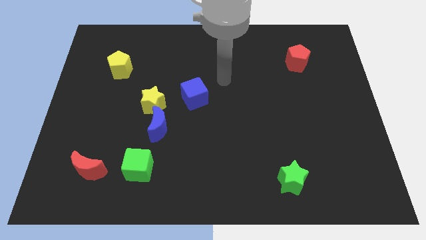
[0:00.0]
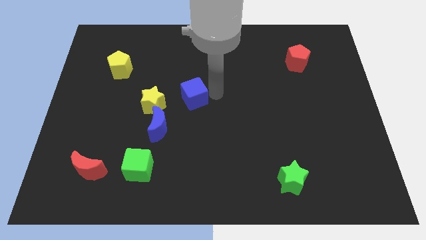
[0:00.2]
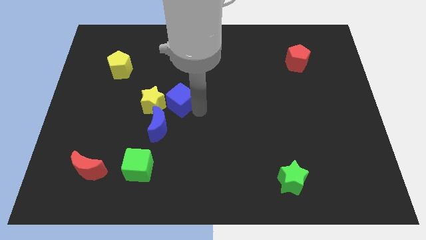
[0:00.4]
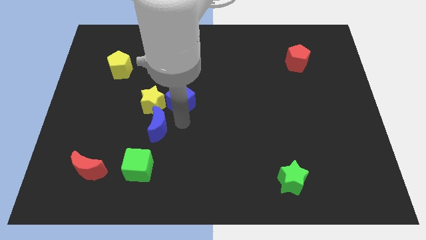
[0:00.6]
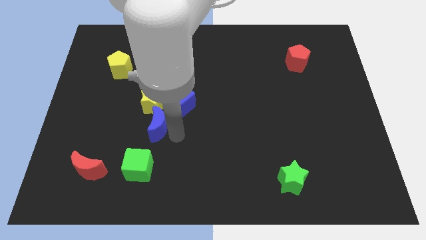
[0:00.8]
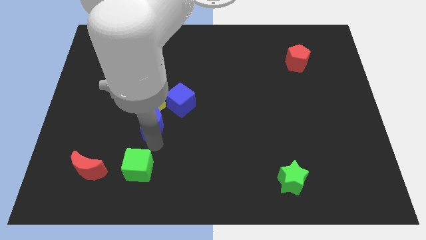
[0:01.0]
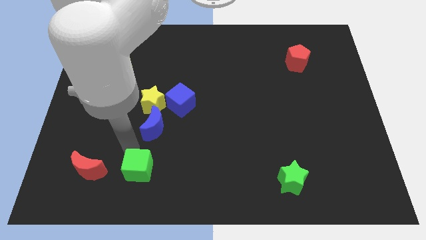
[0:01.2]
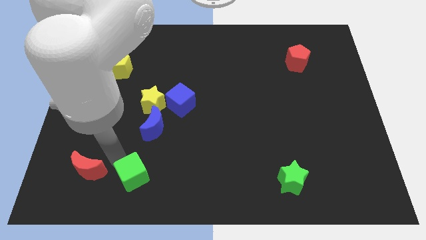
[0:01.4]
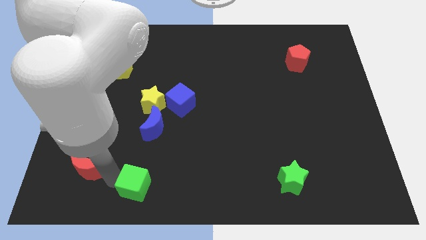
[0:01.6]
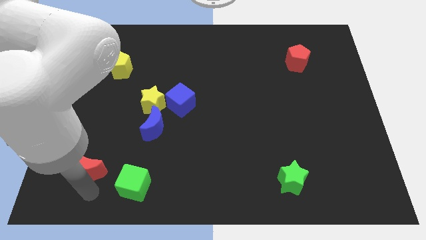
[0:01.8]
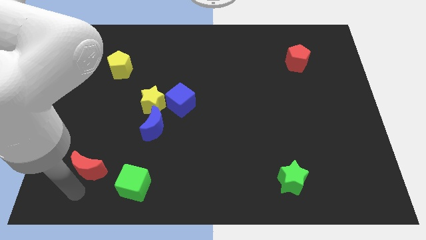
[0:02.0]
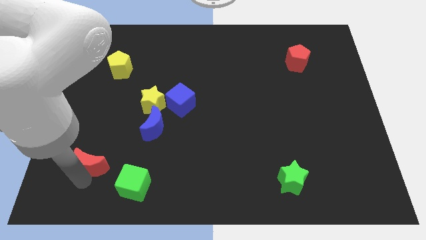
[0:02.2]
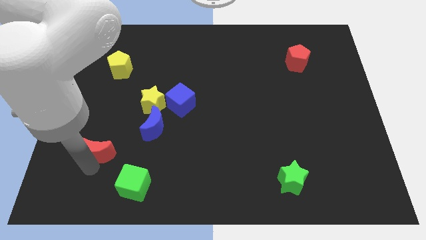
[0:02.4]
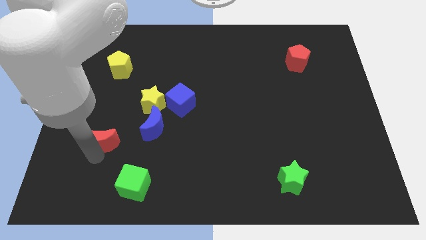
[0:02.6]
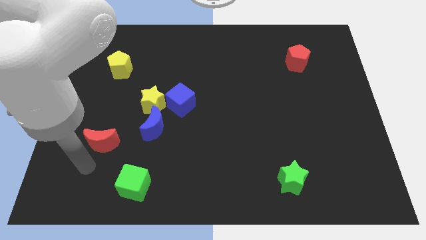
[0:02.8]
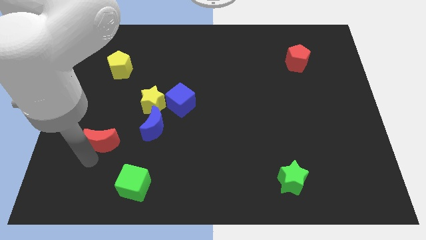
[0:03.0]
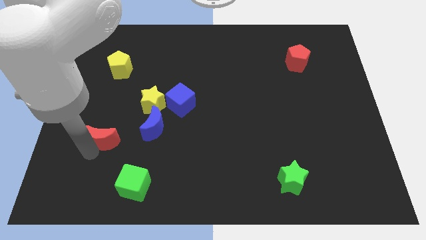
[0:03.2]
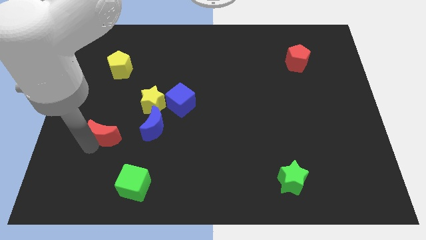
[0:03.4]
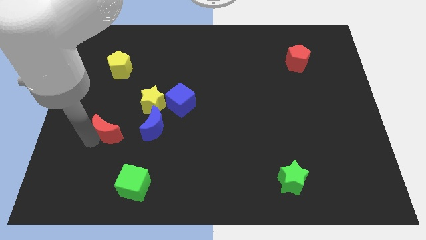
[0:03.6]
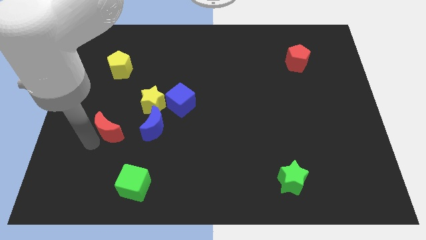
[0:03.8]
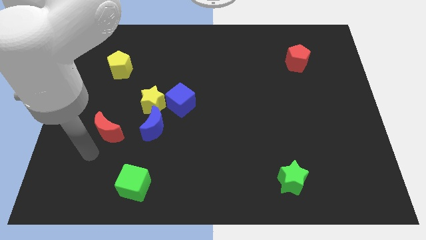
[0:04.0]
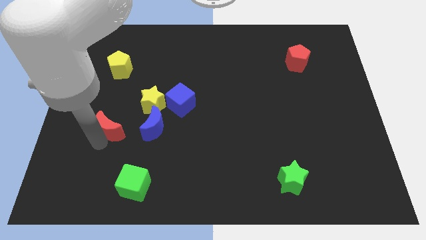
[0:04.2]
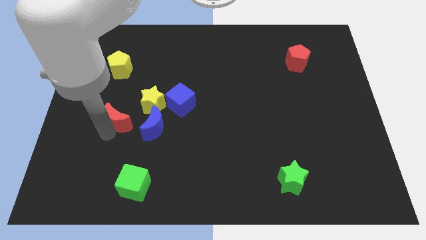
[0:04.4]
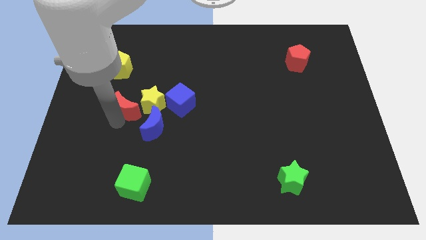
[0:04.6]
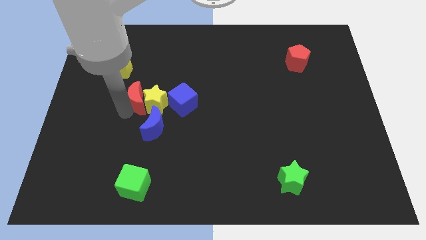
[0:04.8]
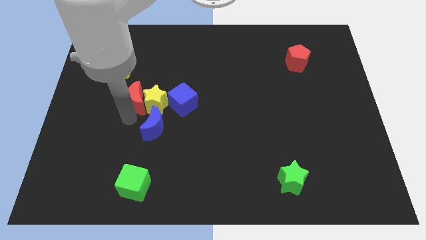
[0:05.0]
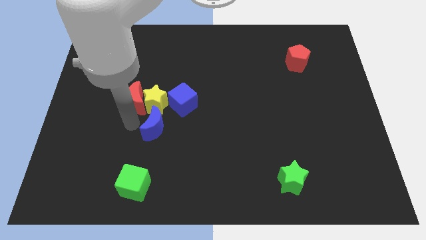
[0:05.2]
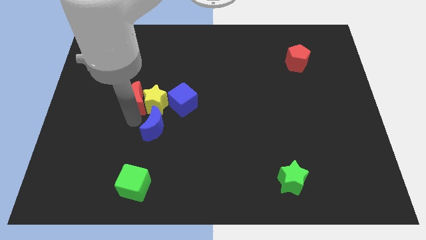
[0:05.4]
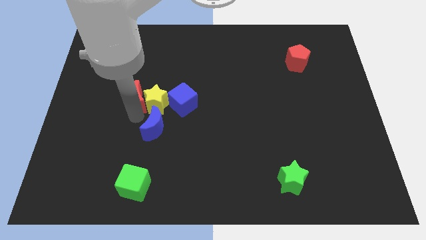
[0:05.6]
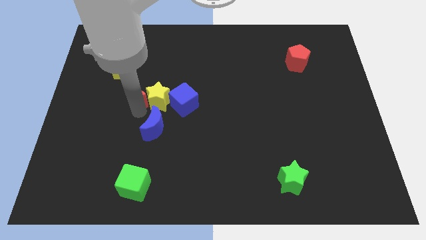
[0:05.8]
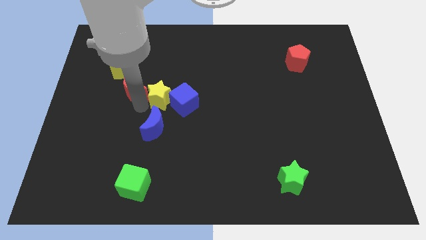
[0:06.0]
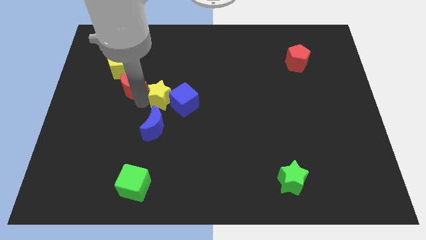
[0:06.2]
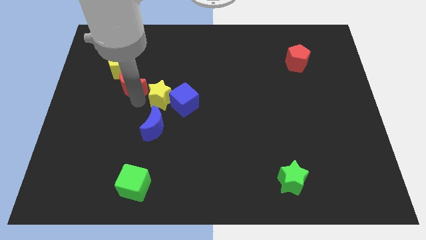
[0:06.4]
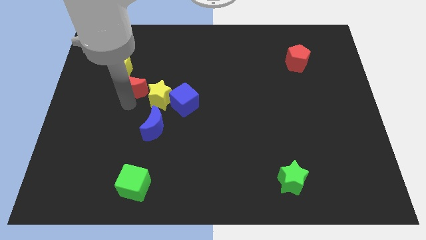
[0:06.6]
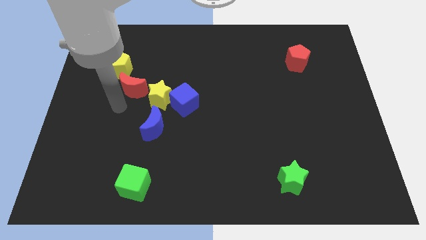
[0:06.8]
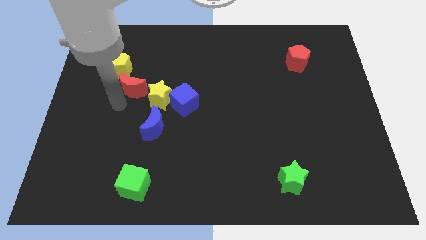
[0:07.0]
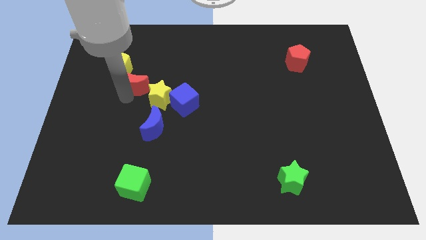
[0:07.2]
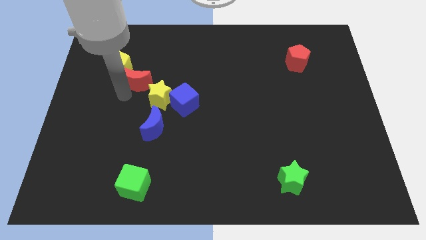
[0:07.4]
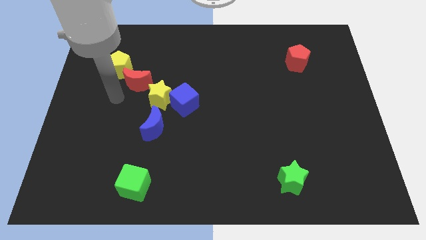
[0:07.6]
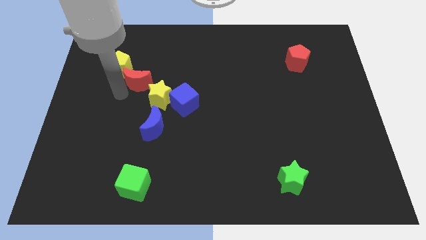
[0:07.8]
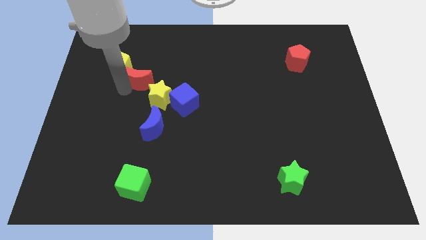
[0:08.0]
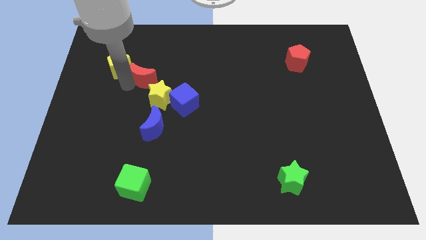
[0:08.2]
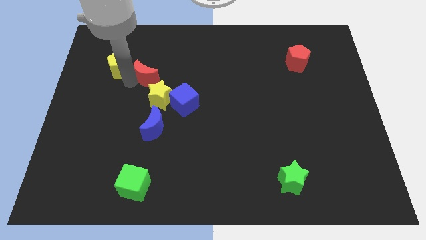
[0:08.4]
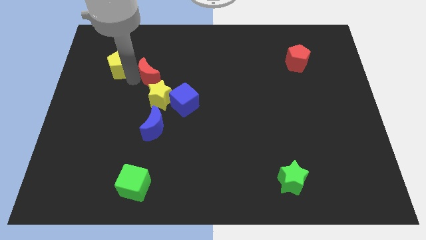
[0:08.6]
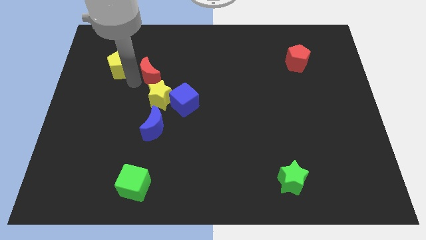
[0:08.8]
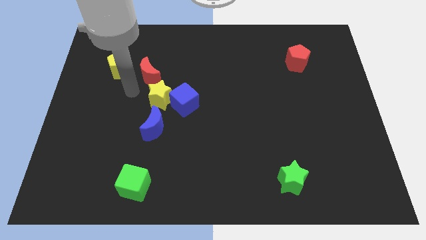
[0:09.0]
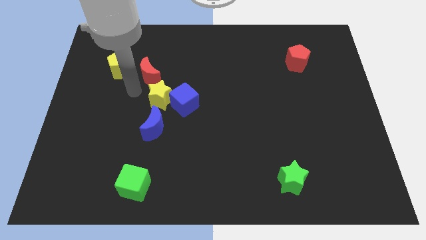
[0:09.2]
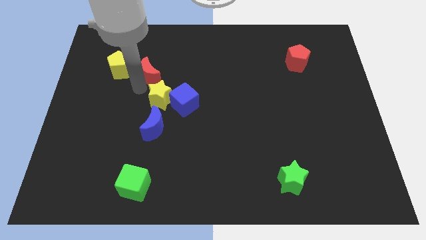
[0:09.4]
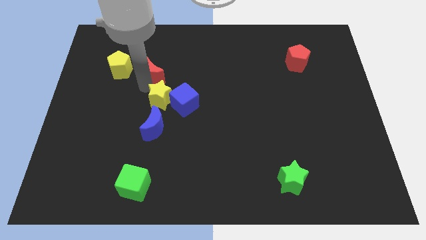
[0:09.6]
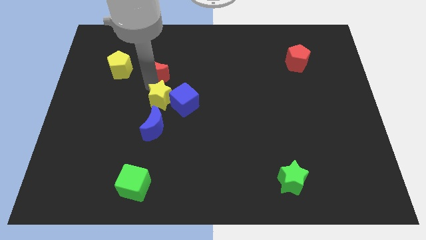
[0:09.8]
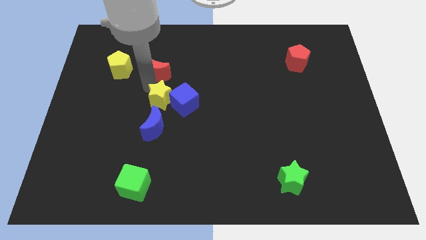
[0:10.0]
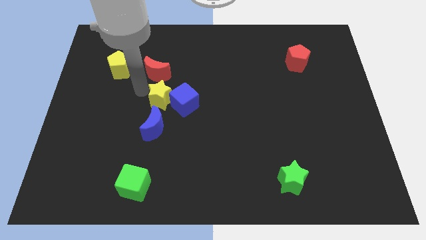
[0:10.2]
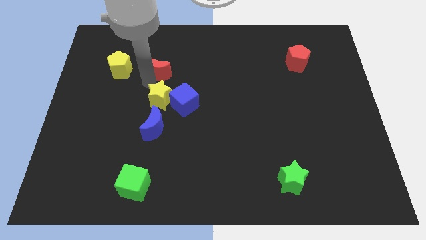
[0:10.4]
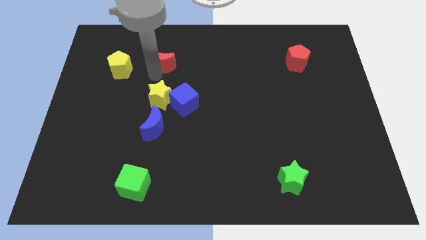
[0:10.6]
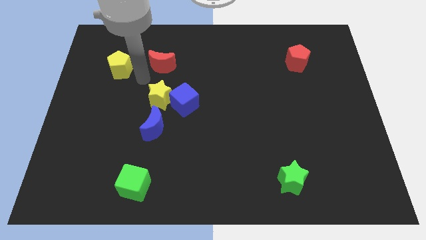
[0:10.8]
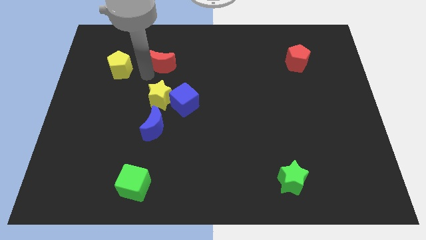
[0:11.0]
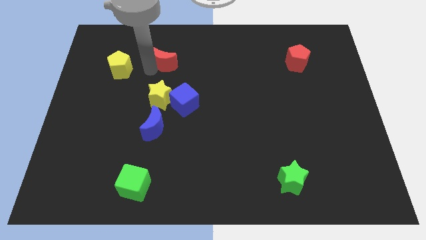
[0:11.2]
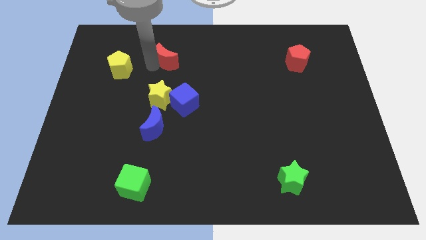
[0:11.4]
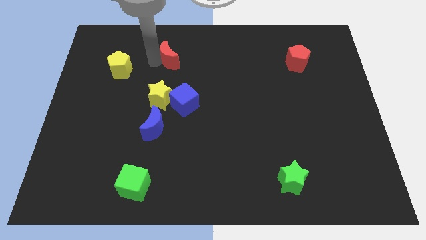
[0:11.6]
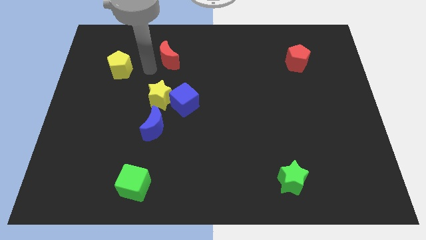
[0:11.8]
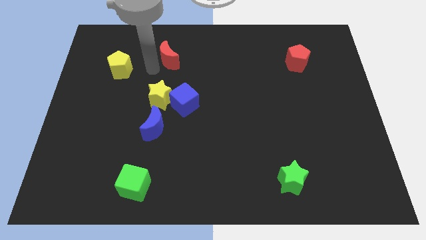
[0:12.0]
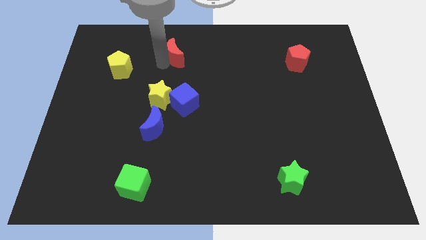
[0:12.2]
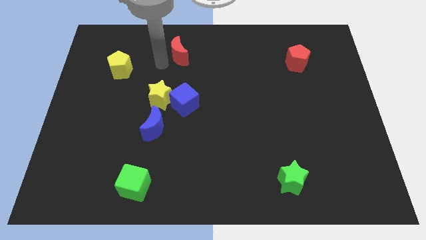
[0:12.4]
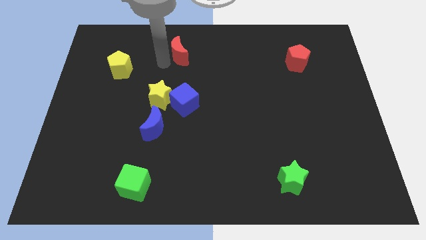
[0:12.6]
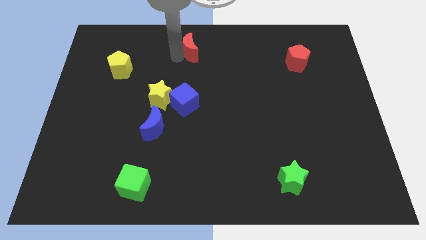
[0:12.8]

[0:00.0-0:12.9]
put the red moon to the top side
